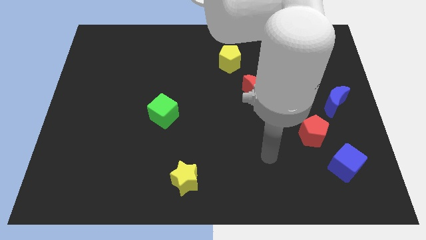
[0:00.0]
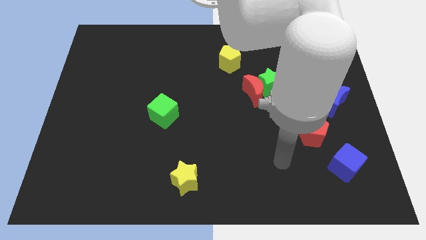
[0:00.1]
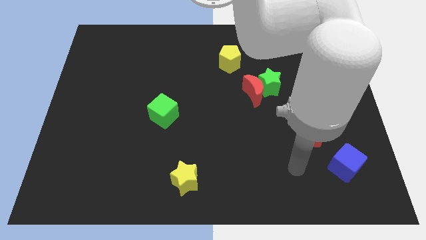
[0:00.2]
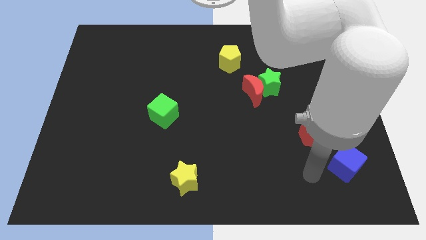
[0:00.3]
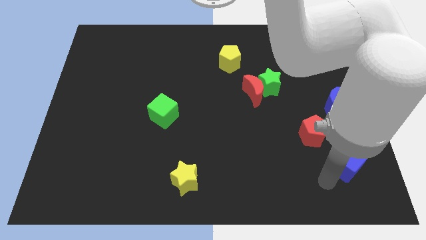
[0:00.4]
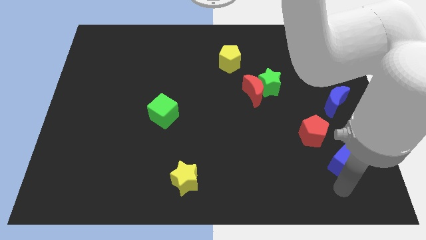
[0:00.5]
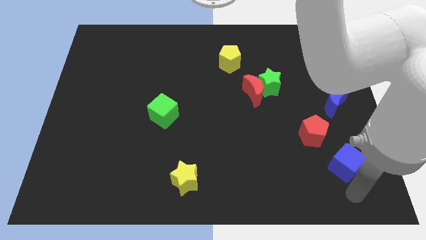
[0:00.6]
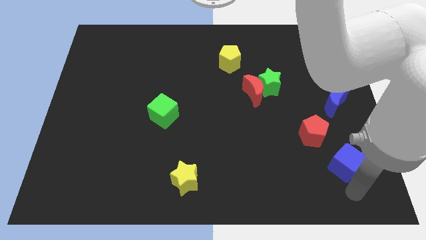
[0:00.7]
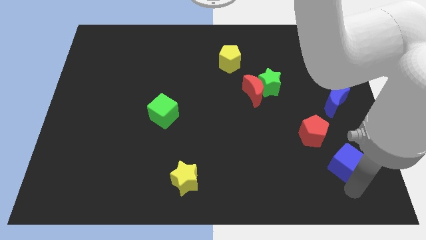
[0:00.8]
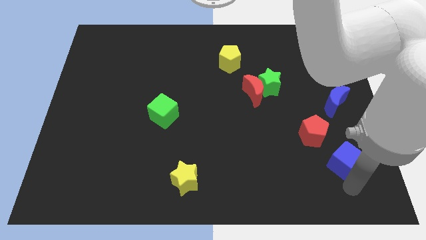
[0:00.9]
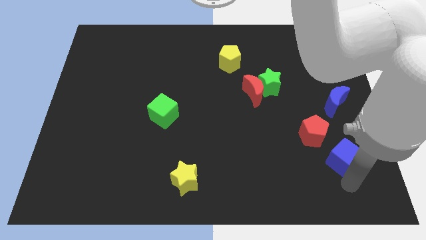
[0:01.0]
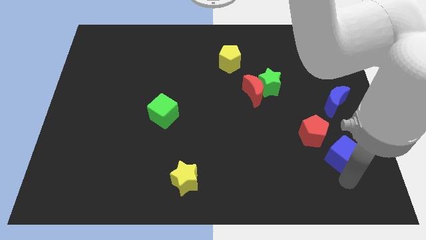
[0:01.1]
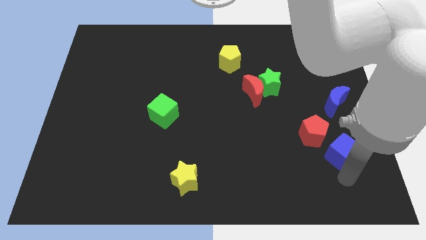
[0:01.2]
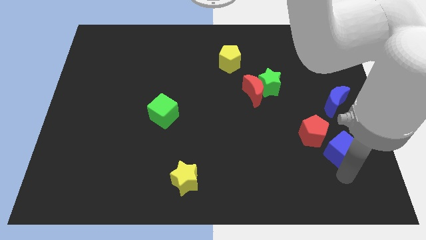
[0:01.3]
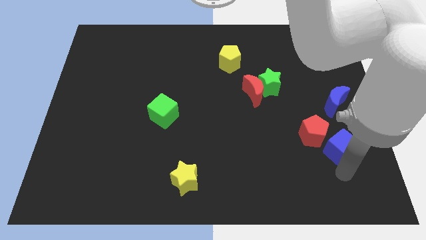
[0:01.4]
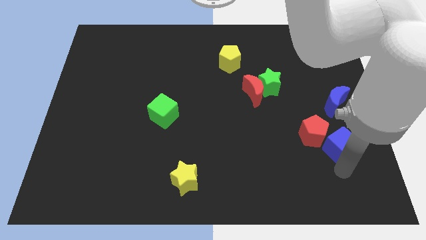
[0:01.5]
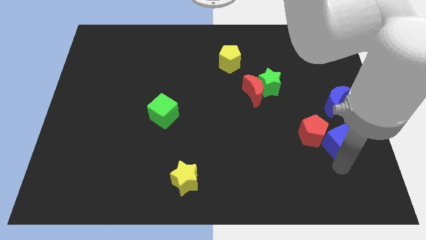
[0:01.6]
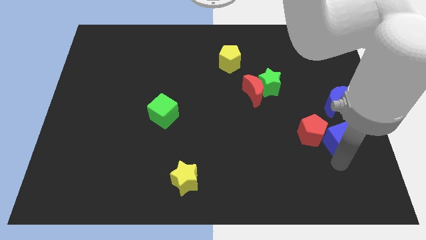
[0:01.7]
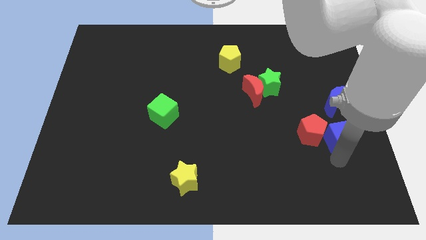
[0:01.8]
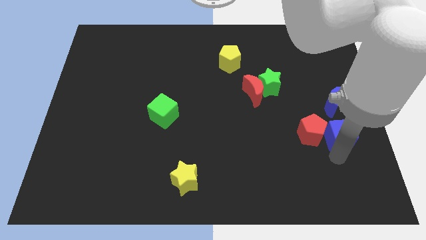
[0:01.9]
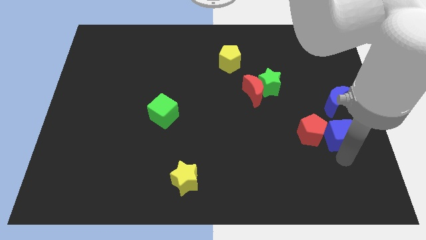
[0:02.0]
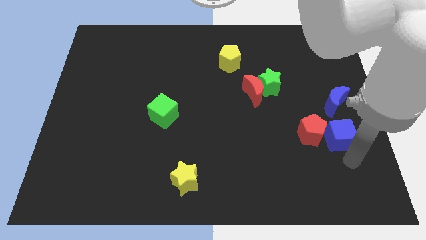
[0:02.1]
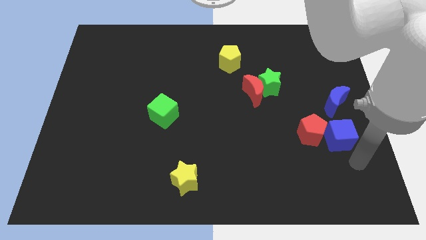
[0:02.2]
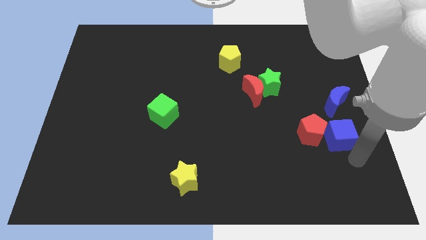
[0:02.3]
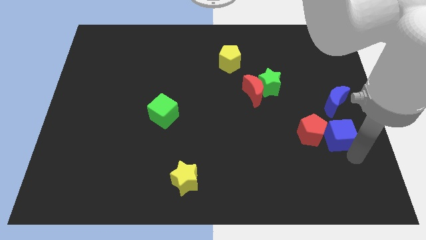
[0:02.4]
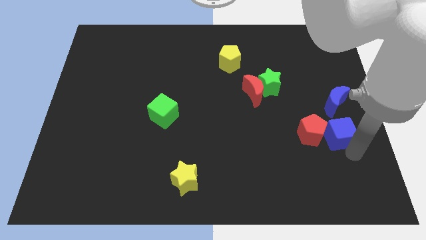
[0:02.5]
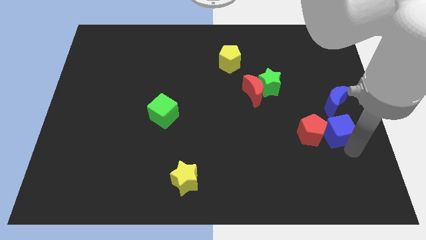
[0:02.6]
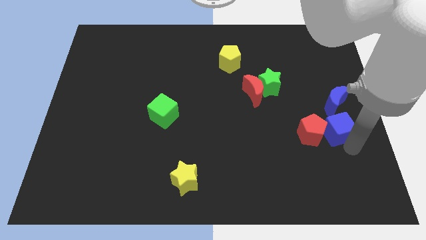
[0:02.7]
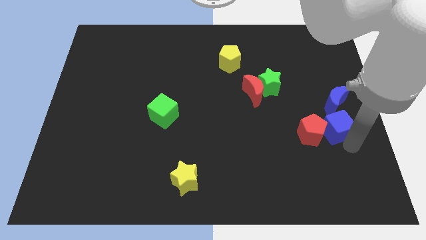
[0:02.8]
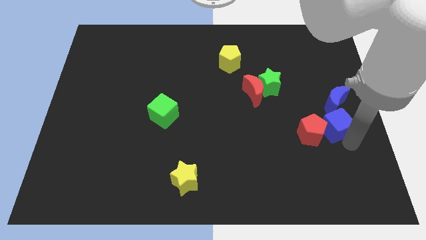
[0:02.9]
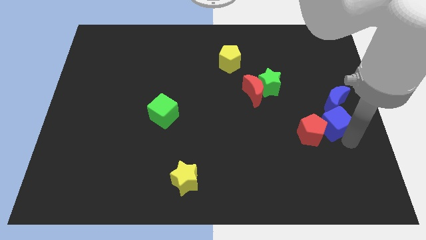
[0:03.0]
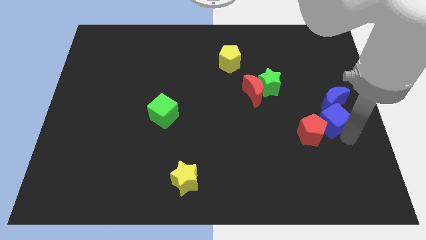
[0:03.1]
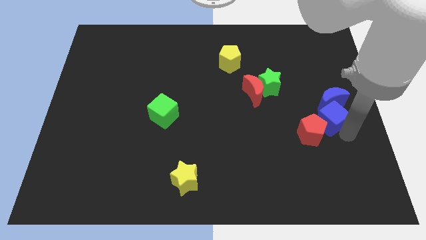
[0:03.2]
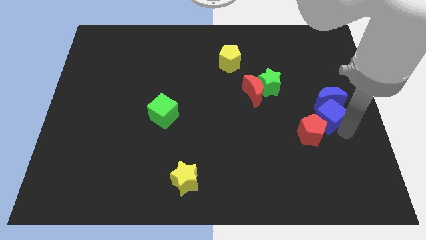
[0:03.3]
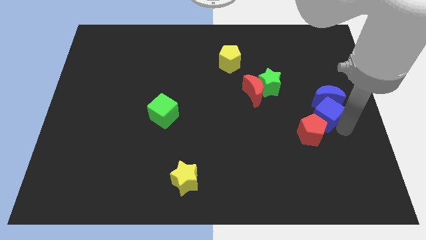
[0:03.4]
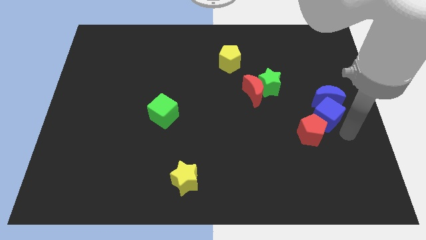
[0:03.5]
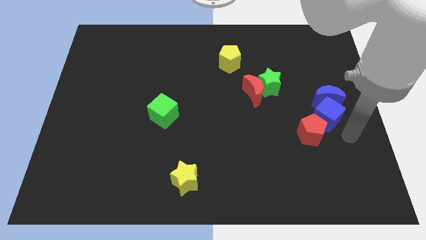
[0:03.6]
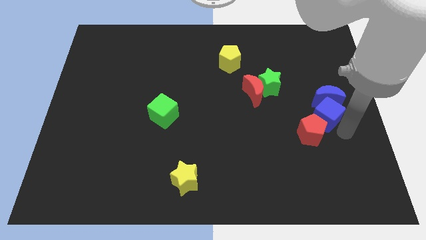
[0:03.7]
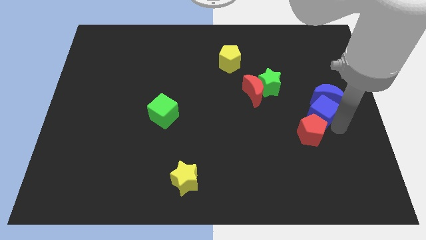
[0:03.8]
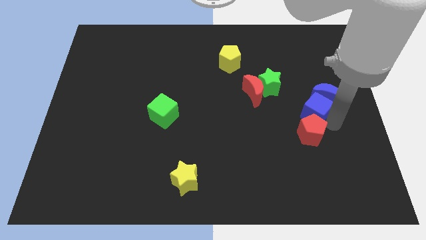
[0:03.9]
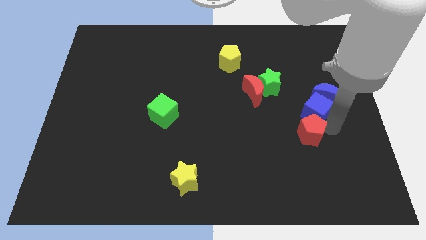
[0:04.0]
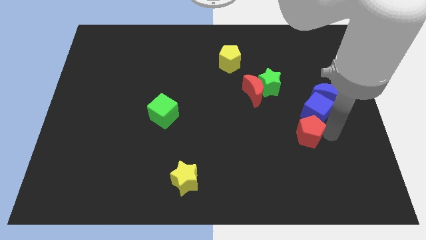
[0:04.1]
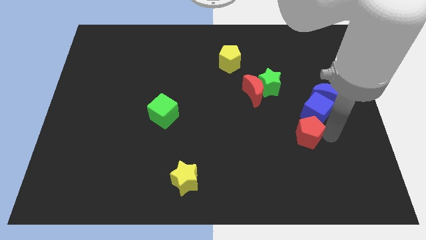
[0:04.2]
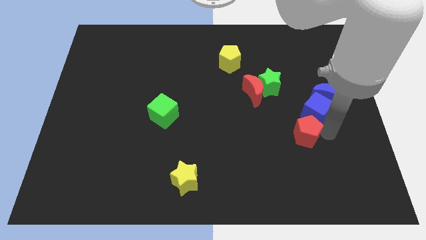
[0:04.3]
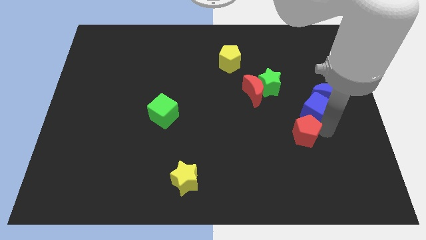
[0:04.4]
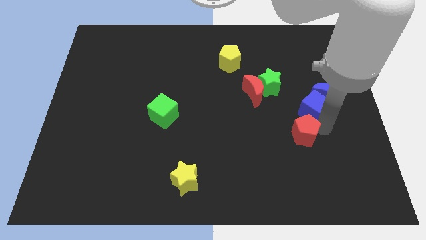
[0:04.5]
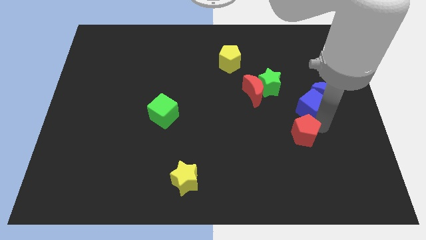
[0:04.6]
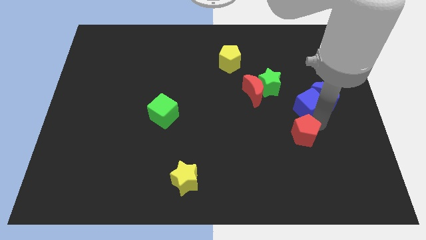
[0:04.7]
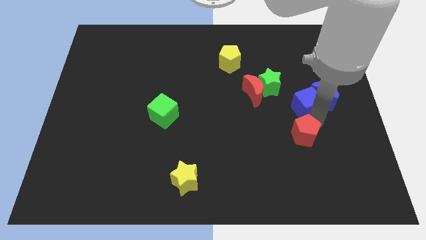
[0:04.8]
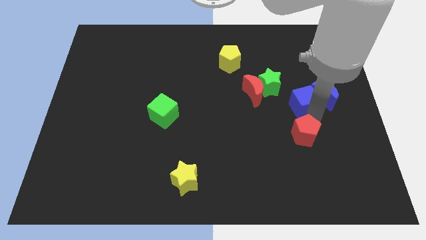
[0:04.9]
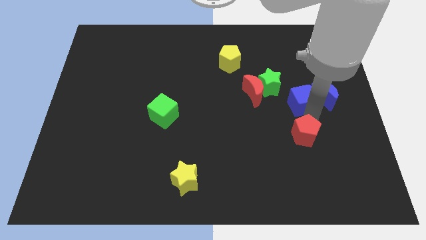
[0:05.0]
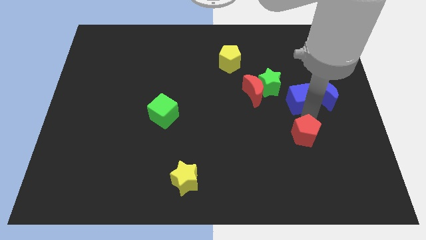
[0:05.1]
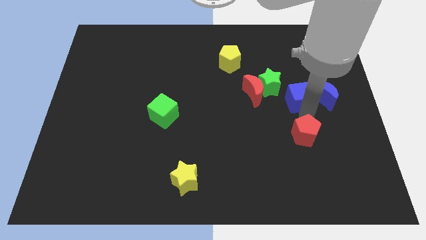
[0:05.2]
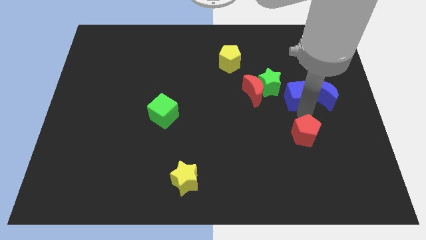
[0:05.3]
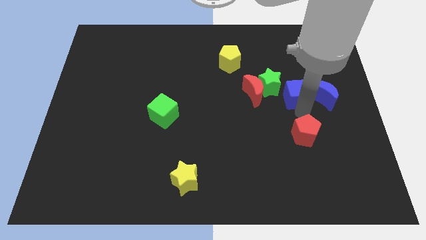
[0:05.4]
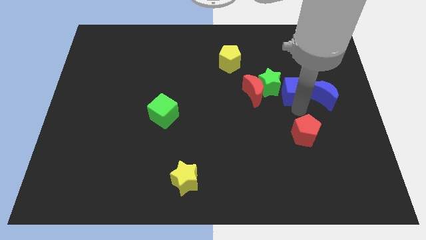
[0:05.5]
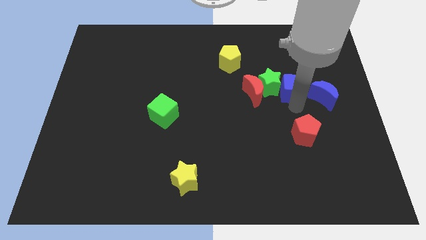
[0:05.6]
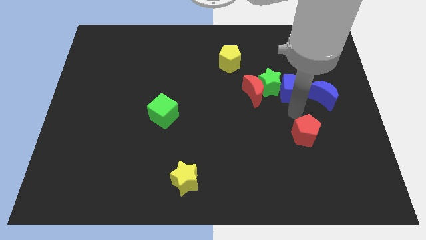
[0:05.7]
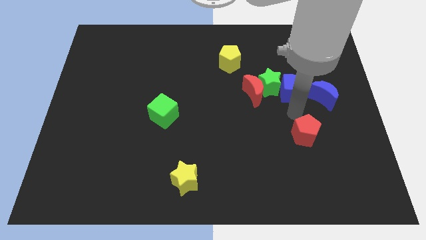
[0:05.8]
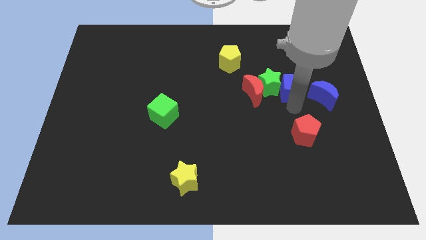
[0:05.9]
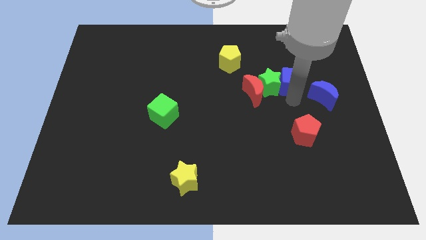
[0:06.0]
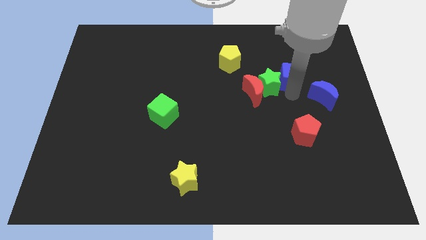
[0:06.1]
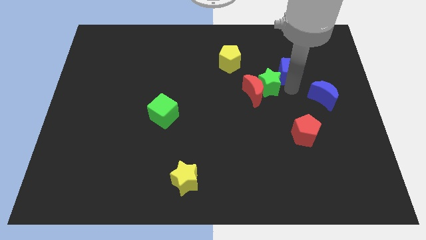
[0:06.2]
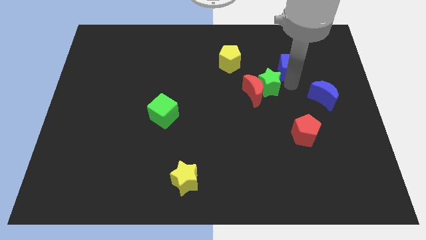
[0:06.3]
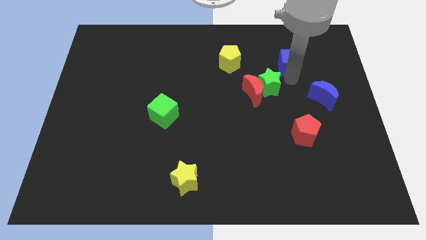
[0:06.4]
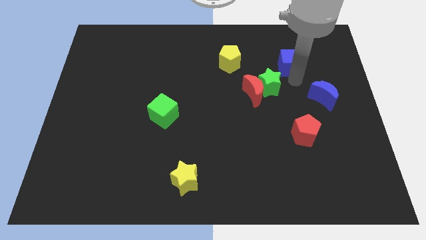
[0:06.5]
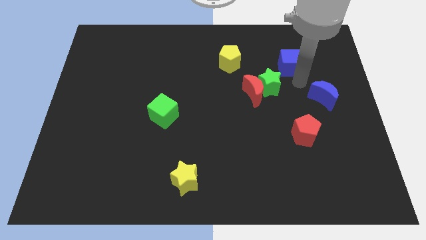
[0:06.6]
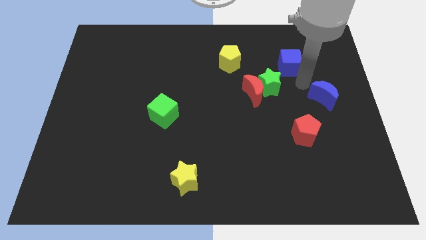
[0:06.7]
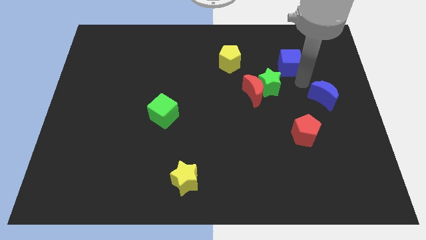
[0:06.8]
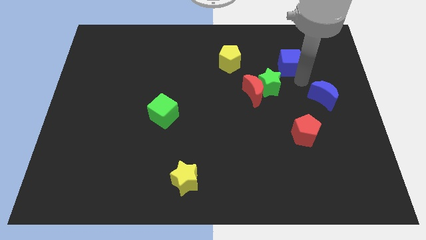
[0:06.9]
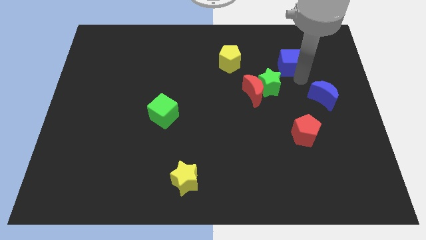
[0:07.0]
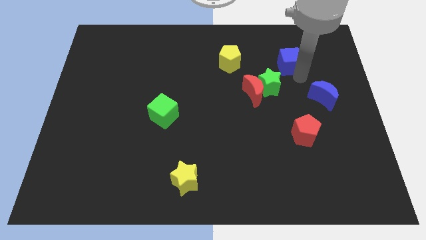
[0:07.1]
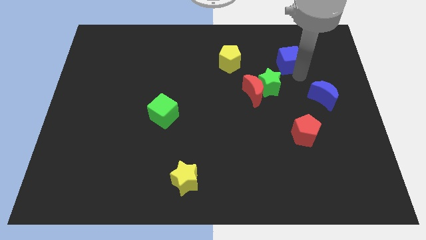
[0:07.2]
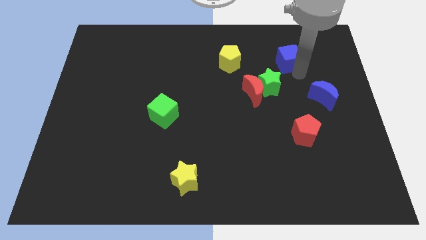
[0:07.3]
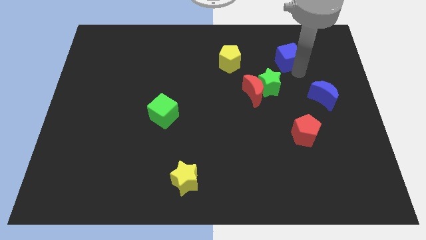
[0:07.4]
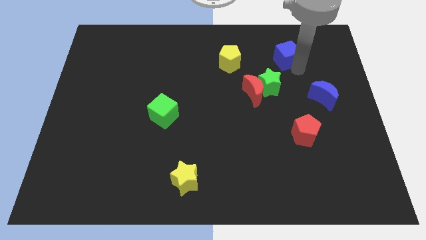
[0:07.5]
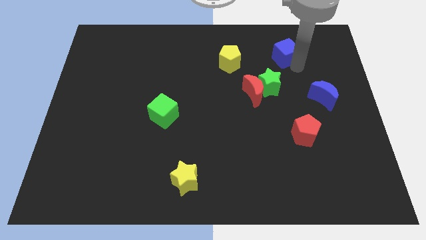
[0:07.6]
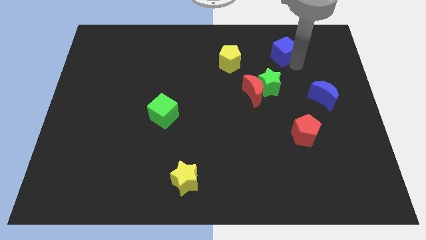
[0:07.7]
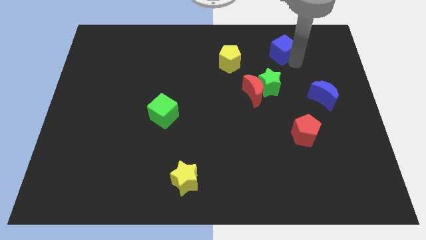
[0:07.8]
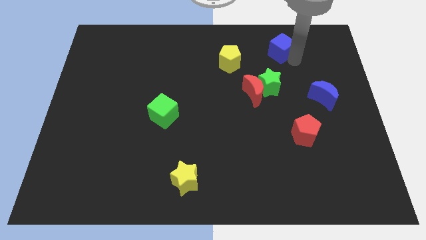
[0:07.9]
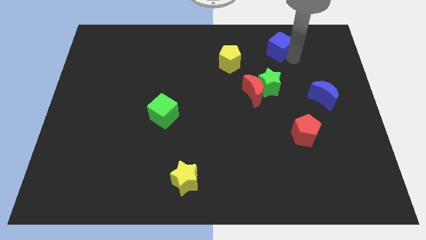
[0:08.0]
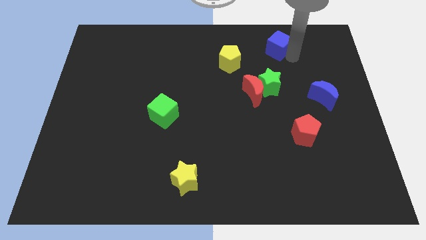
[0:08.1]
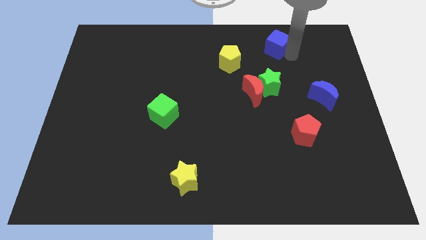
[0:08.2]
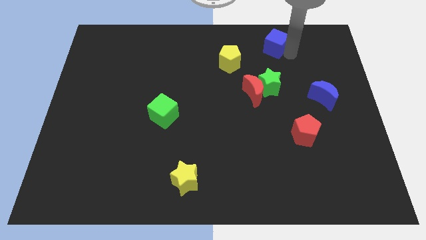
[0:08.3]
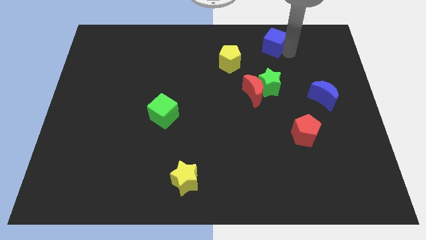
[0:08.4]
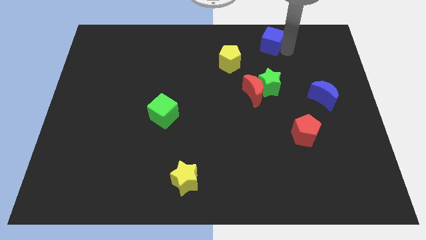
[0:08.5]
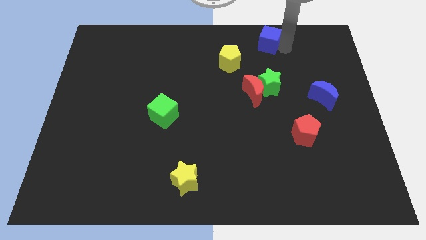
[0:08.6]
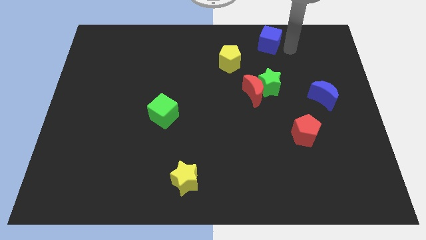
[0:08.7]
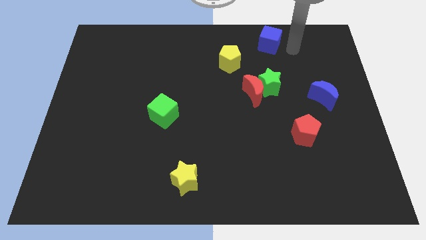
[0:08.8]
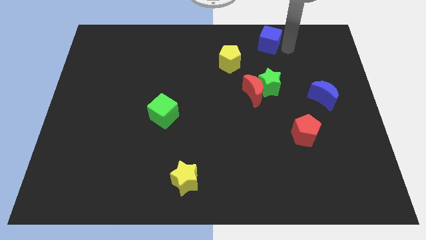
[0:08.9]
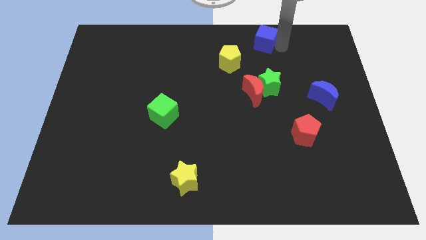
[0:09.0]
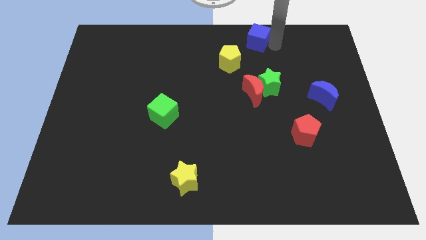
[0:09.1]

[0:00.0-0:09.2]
put the blue cube to the top side
